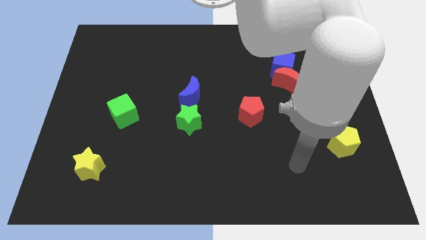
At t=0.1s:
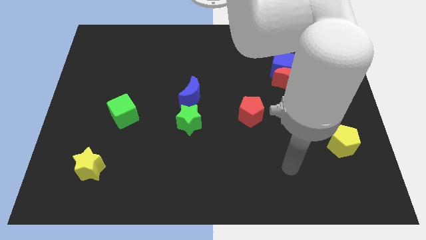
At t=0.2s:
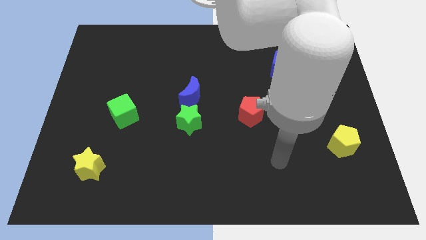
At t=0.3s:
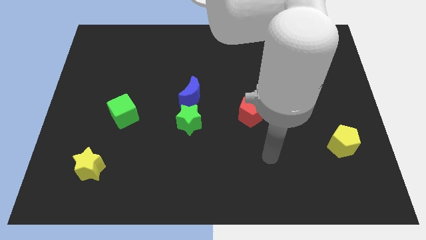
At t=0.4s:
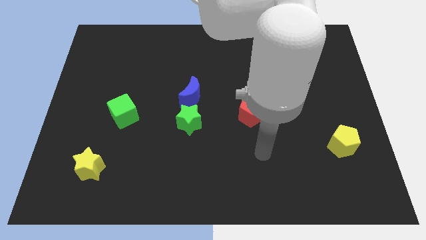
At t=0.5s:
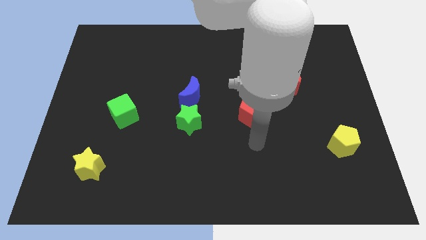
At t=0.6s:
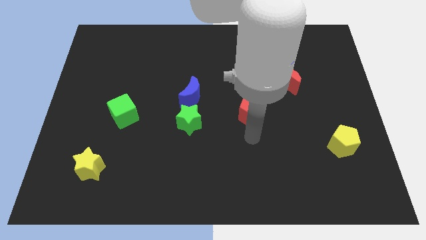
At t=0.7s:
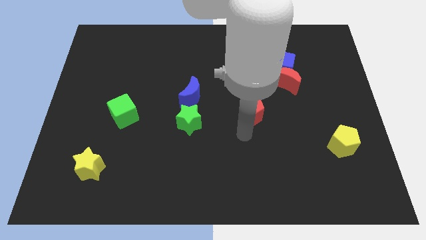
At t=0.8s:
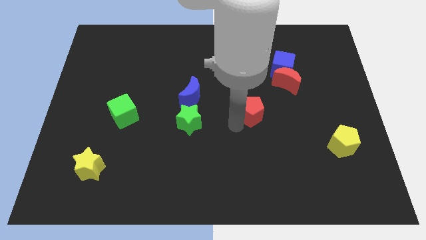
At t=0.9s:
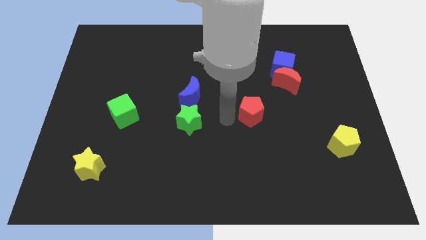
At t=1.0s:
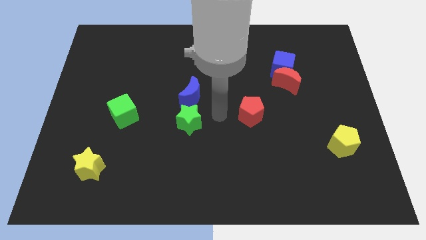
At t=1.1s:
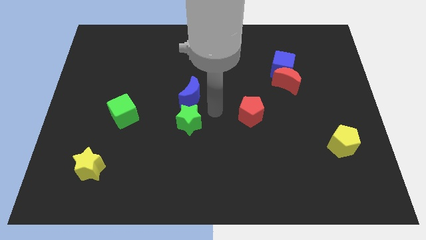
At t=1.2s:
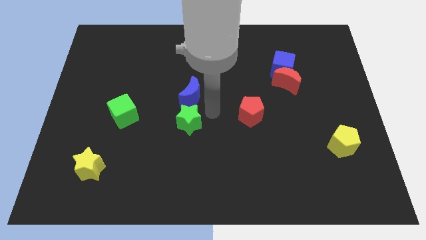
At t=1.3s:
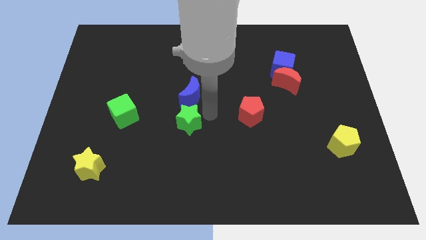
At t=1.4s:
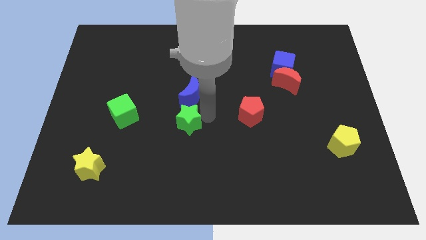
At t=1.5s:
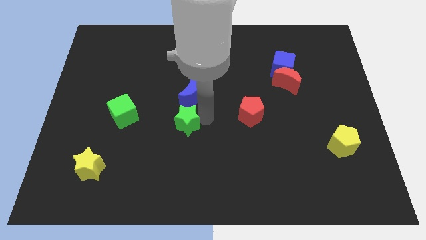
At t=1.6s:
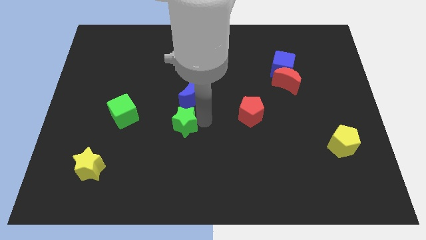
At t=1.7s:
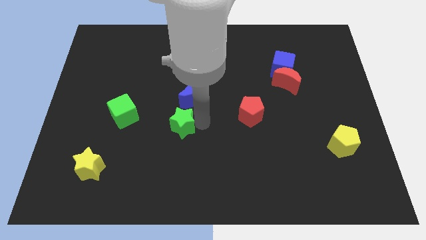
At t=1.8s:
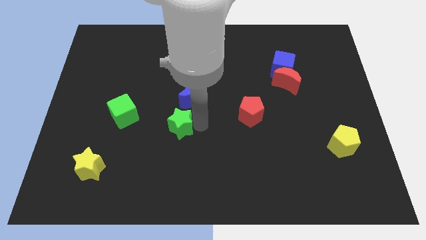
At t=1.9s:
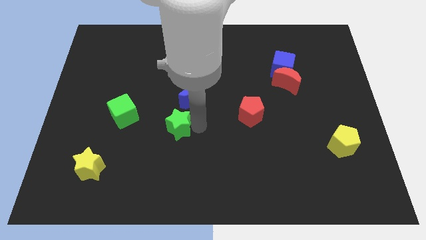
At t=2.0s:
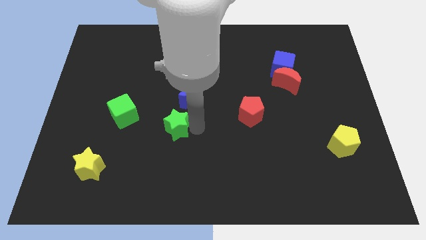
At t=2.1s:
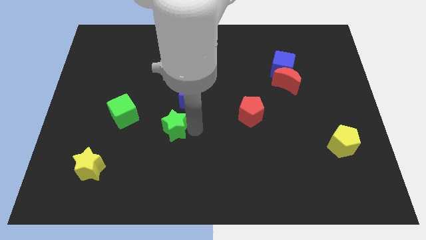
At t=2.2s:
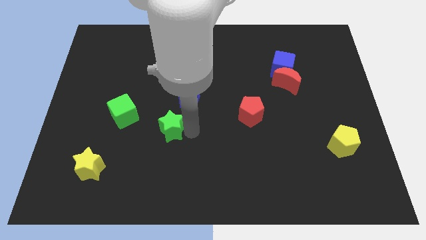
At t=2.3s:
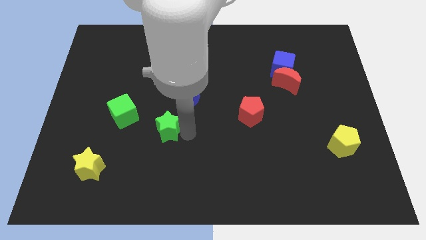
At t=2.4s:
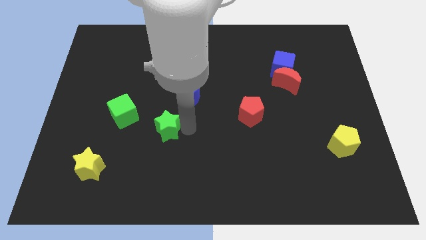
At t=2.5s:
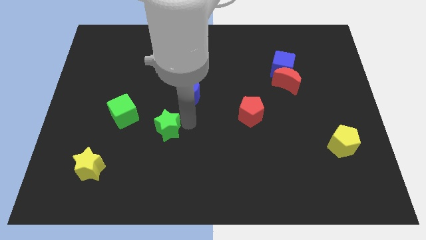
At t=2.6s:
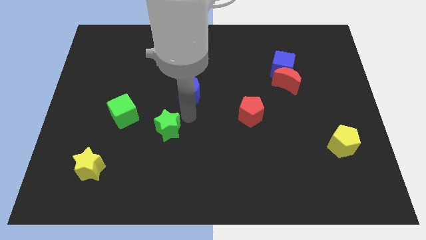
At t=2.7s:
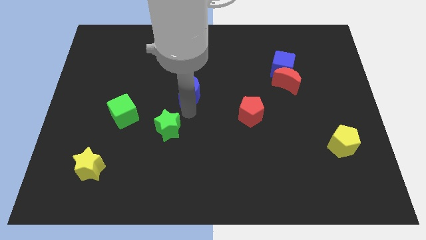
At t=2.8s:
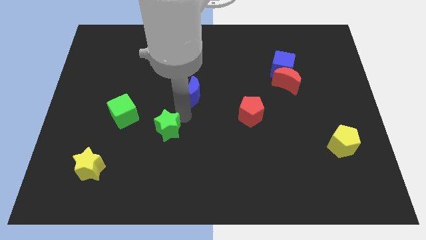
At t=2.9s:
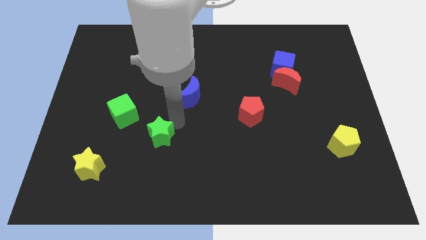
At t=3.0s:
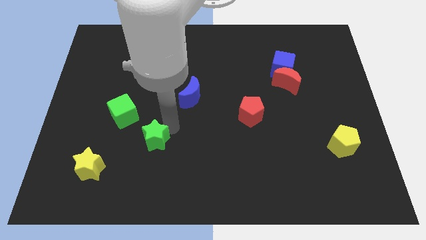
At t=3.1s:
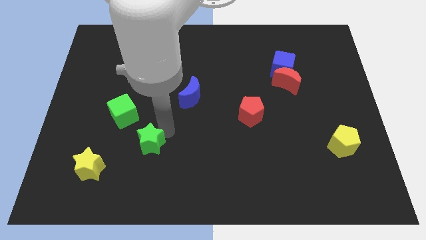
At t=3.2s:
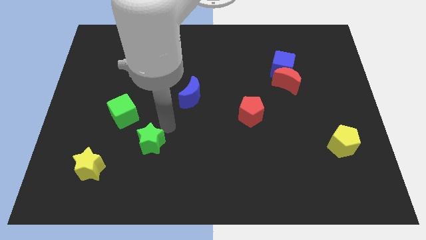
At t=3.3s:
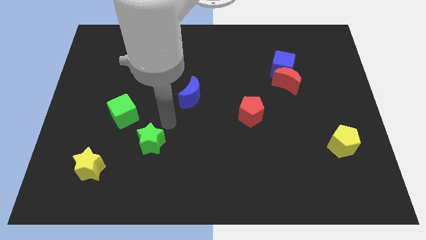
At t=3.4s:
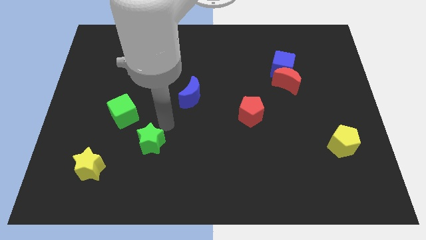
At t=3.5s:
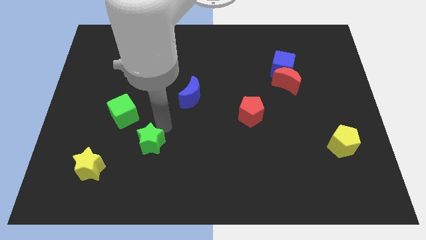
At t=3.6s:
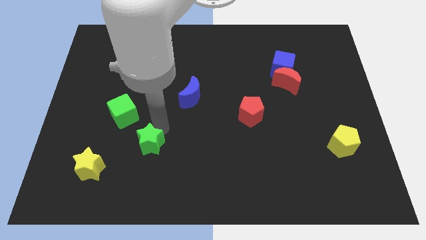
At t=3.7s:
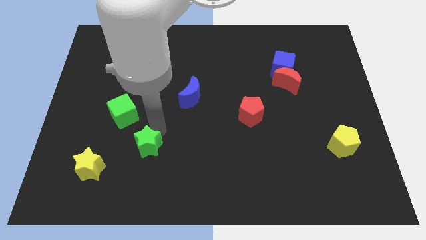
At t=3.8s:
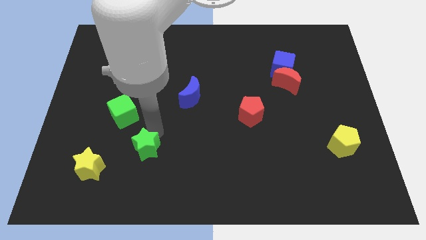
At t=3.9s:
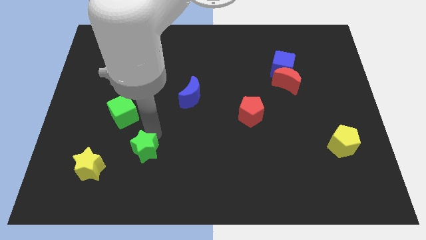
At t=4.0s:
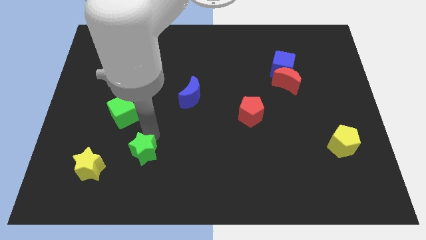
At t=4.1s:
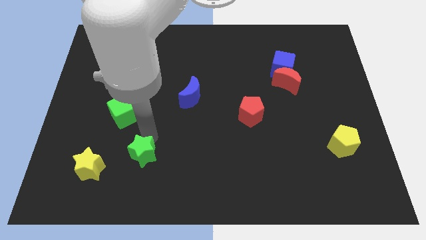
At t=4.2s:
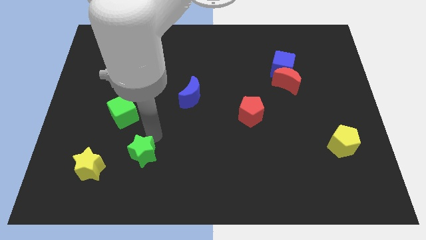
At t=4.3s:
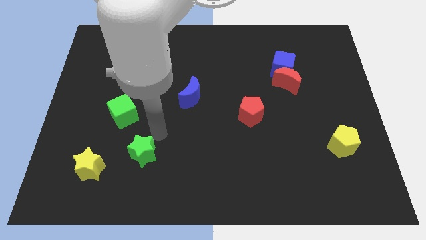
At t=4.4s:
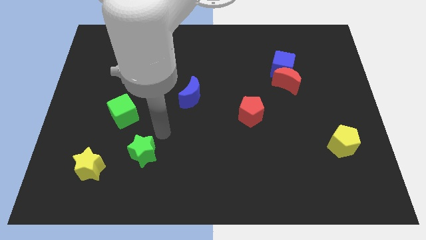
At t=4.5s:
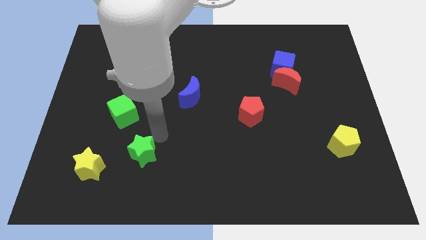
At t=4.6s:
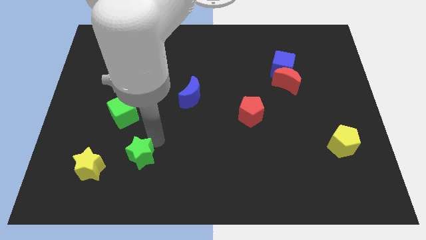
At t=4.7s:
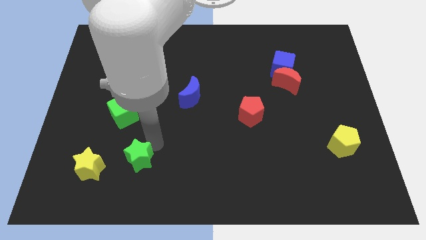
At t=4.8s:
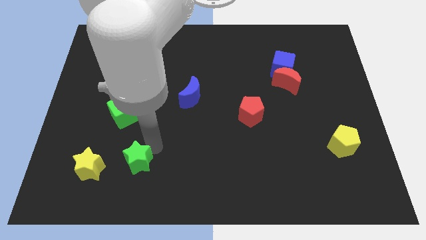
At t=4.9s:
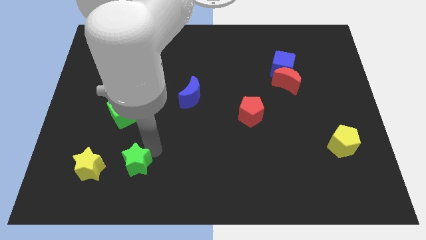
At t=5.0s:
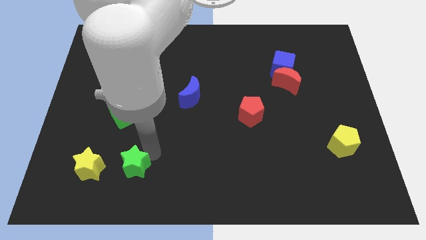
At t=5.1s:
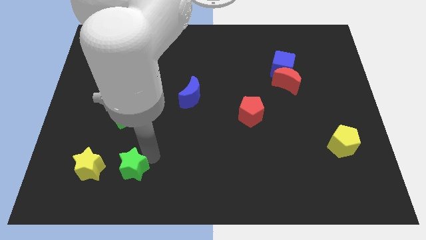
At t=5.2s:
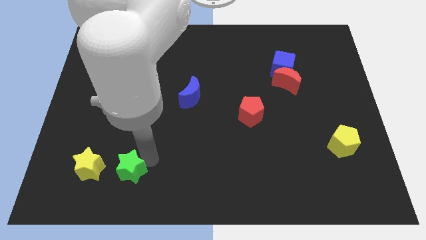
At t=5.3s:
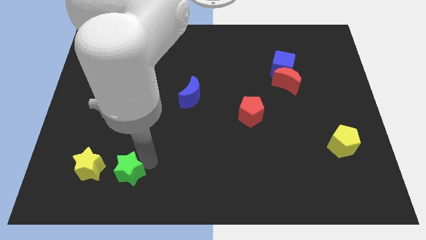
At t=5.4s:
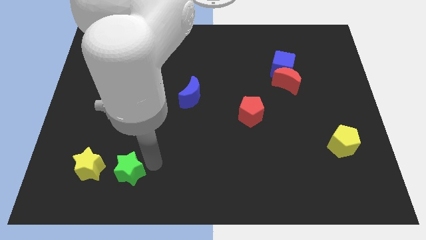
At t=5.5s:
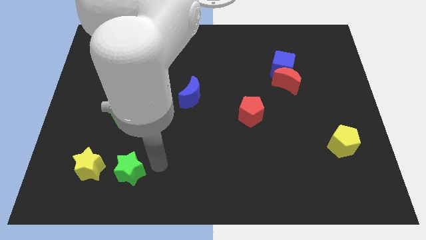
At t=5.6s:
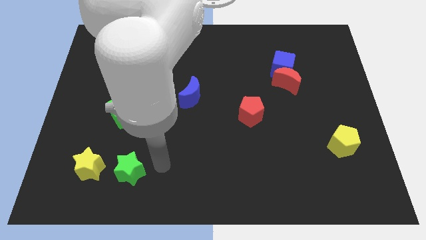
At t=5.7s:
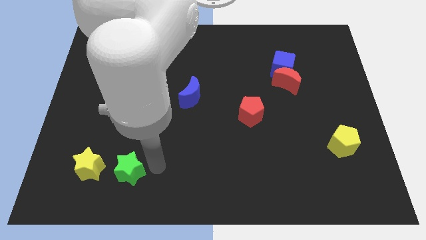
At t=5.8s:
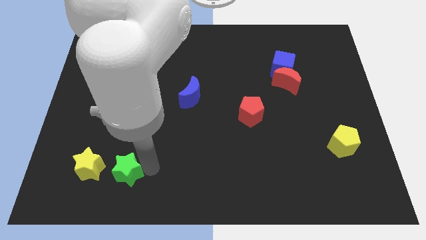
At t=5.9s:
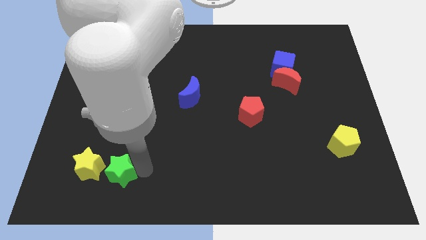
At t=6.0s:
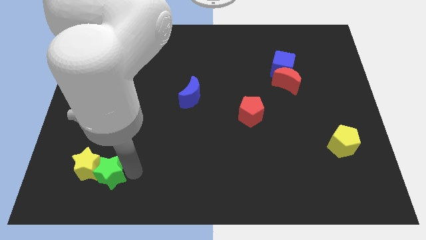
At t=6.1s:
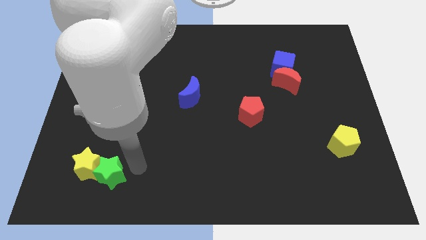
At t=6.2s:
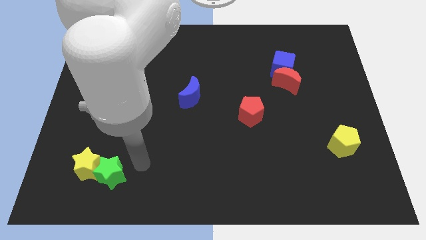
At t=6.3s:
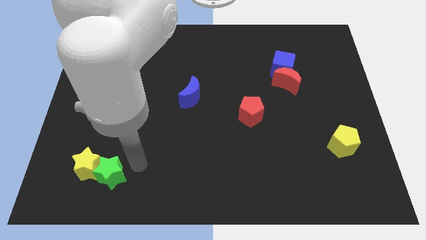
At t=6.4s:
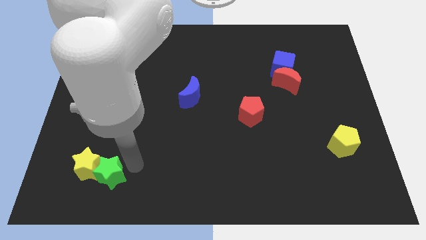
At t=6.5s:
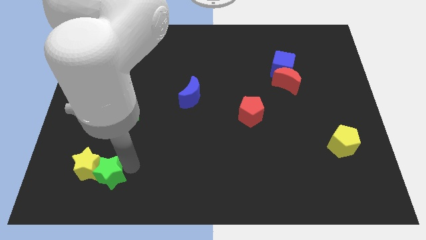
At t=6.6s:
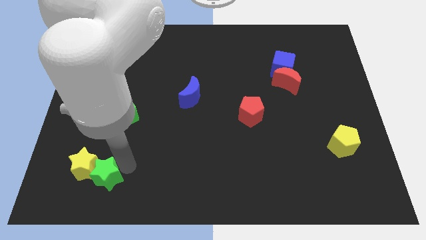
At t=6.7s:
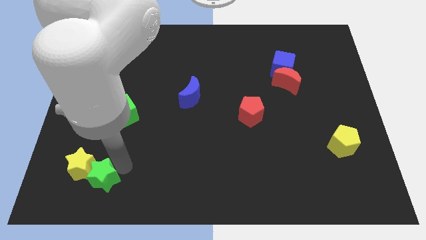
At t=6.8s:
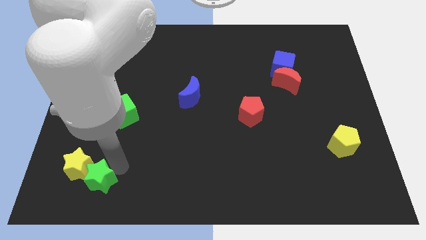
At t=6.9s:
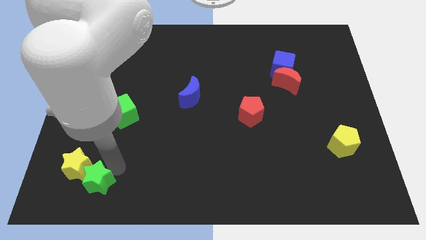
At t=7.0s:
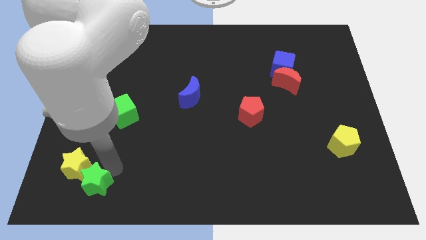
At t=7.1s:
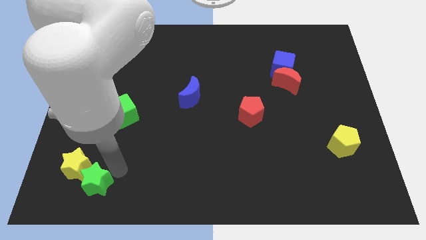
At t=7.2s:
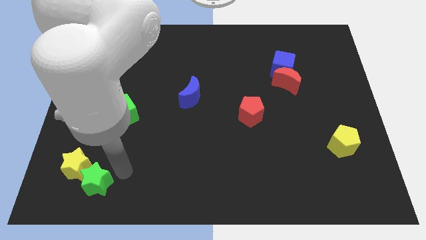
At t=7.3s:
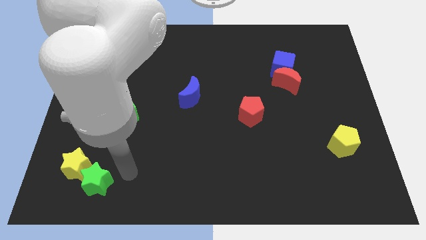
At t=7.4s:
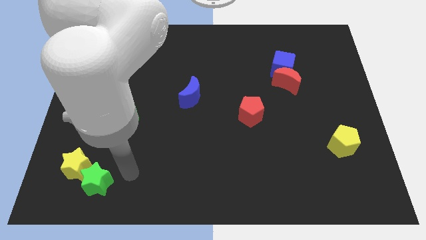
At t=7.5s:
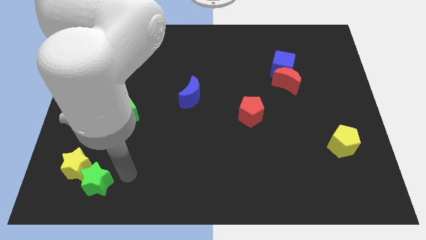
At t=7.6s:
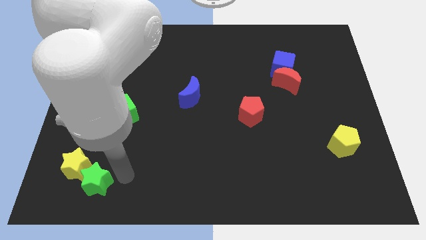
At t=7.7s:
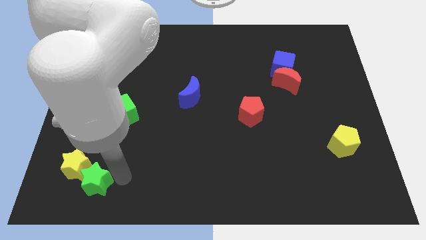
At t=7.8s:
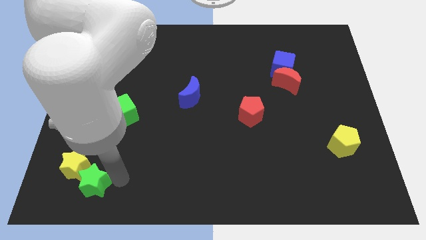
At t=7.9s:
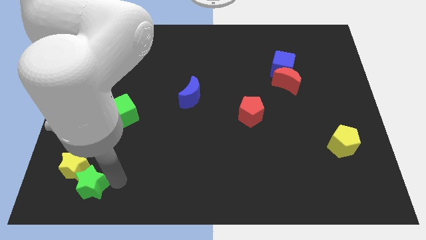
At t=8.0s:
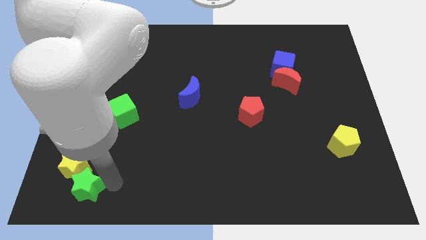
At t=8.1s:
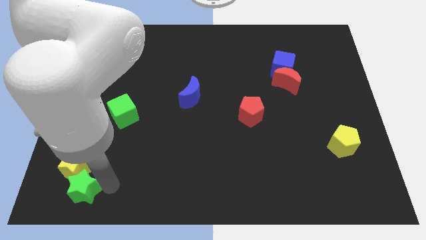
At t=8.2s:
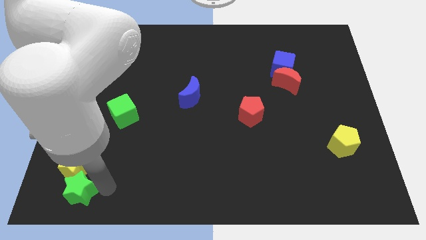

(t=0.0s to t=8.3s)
push the green star to the bottom left corner
